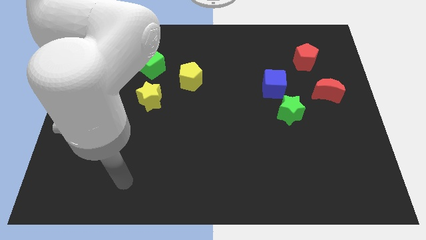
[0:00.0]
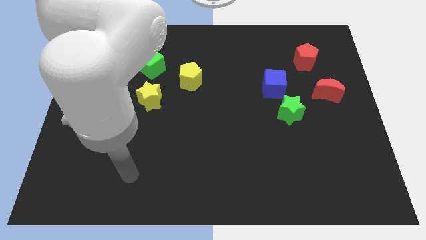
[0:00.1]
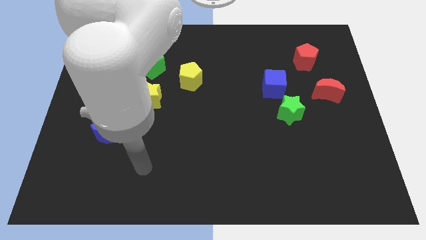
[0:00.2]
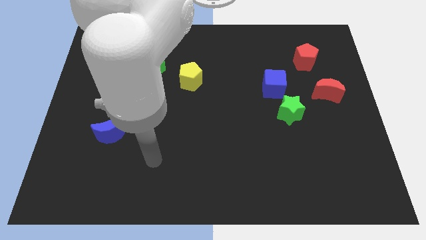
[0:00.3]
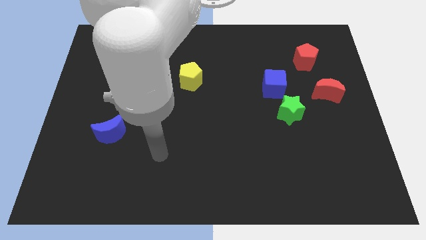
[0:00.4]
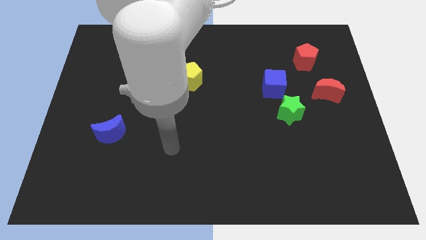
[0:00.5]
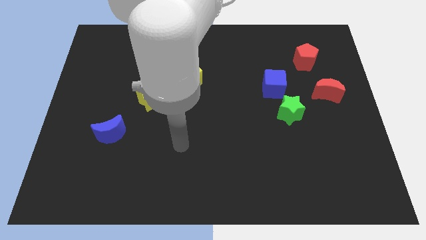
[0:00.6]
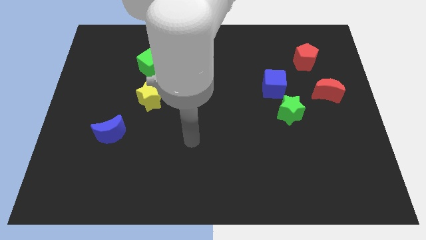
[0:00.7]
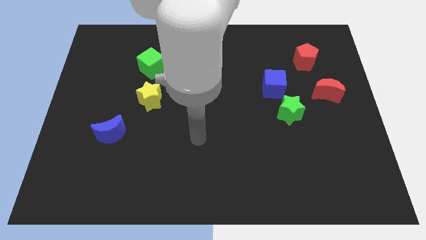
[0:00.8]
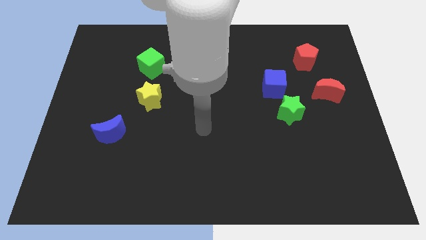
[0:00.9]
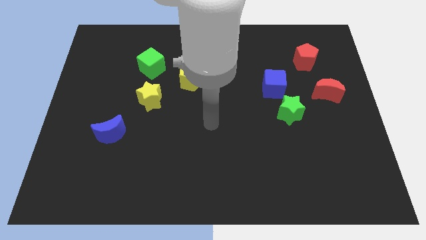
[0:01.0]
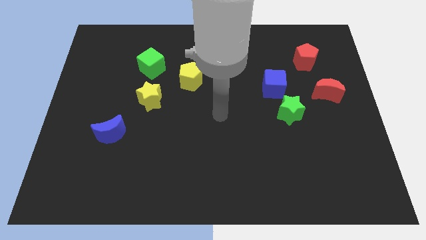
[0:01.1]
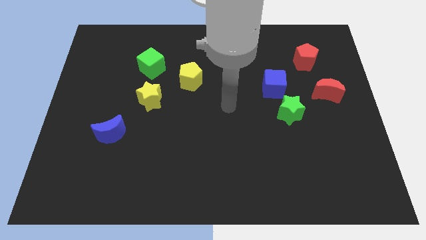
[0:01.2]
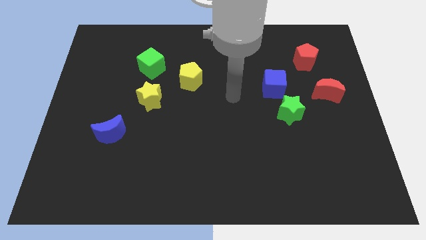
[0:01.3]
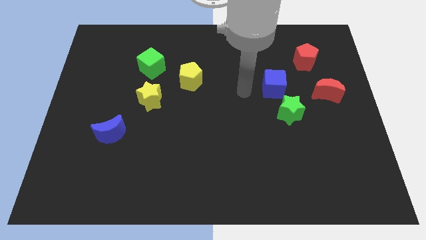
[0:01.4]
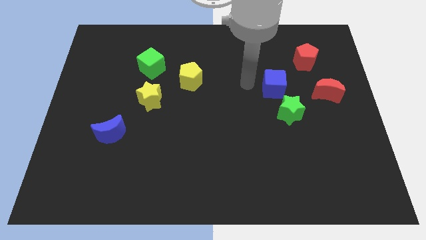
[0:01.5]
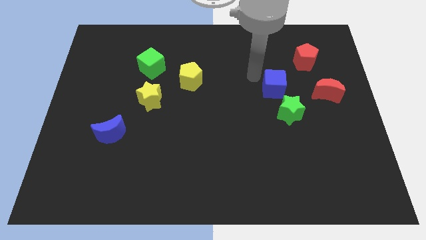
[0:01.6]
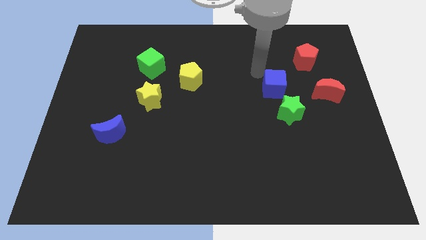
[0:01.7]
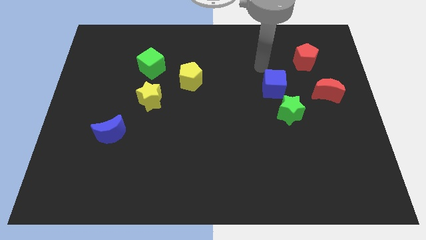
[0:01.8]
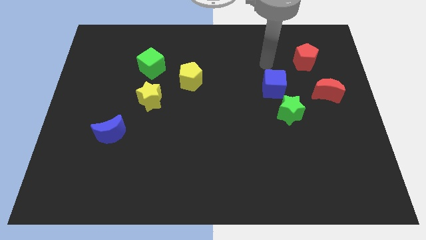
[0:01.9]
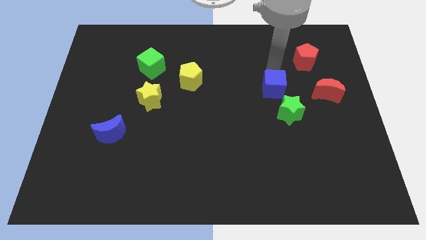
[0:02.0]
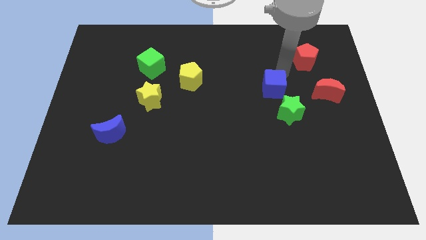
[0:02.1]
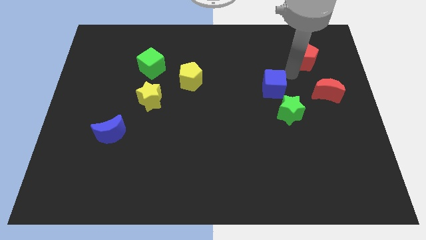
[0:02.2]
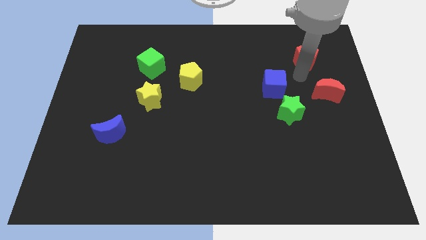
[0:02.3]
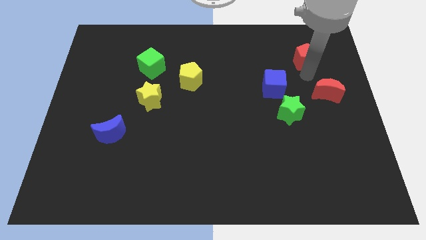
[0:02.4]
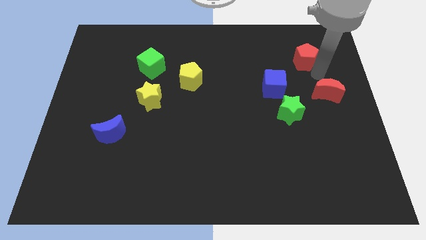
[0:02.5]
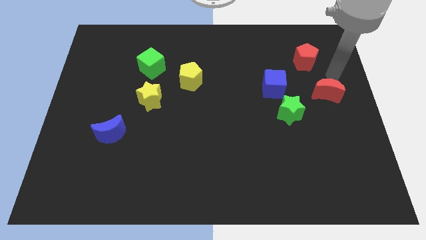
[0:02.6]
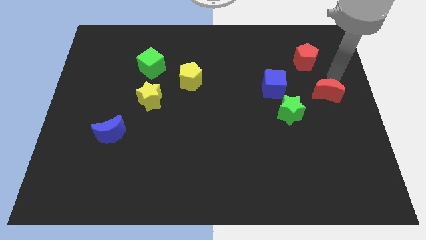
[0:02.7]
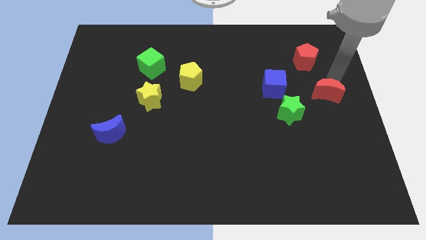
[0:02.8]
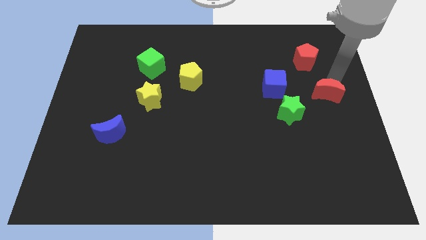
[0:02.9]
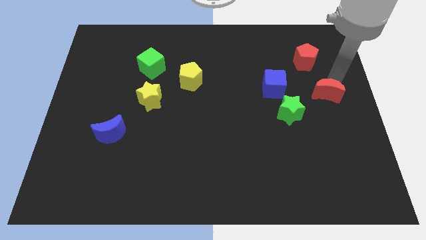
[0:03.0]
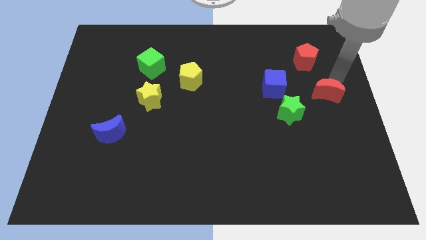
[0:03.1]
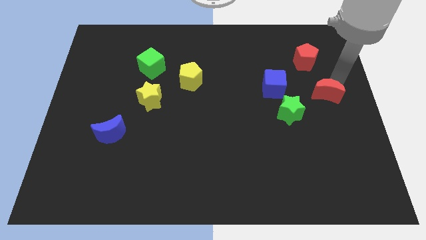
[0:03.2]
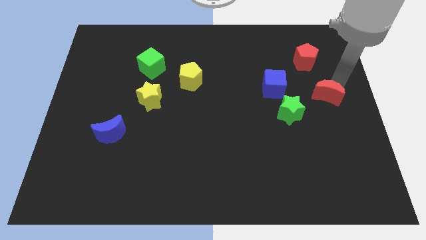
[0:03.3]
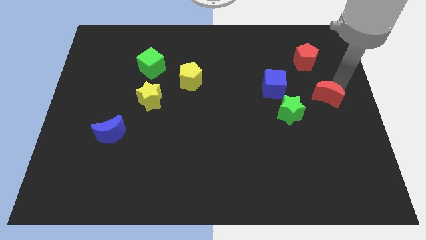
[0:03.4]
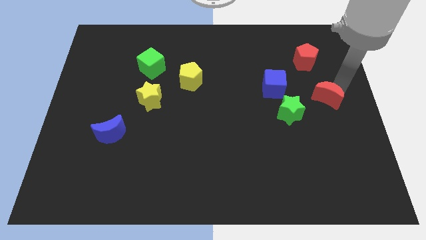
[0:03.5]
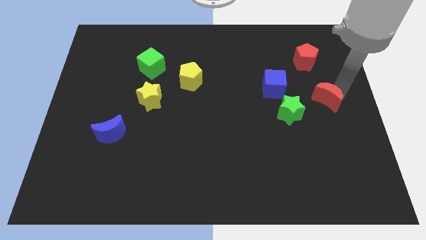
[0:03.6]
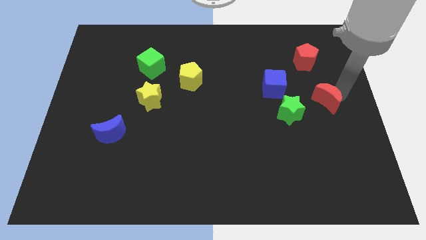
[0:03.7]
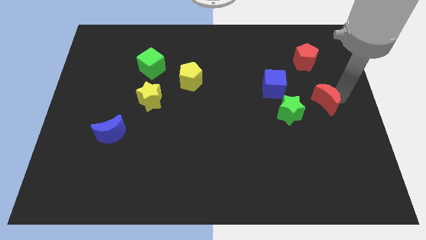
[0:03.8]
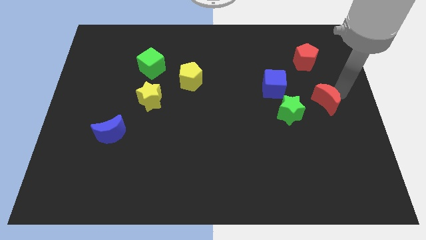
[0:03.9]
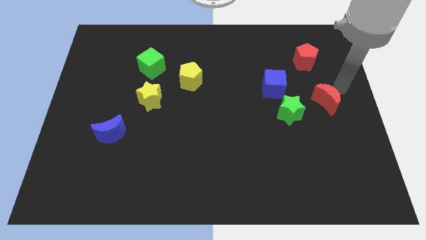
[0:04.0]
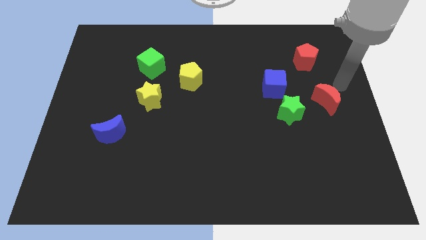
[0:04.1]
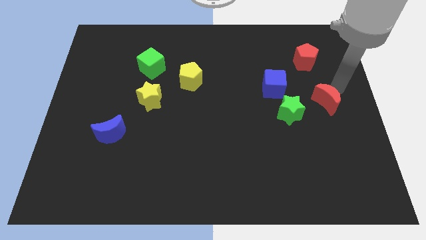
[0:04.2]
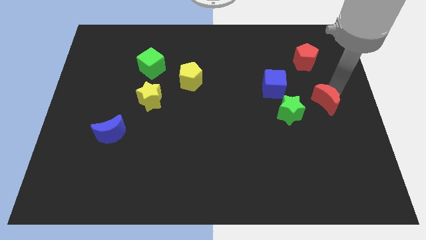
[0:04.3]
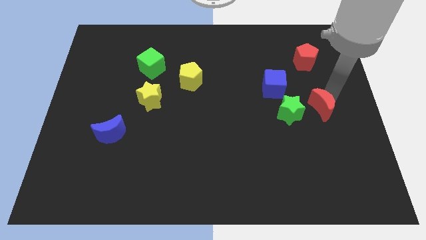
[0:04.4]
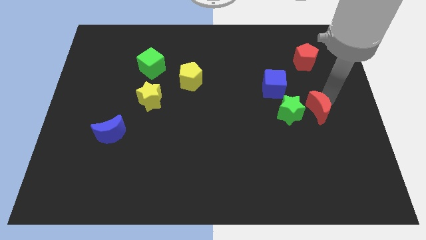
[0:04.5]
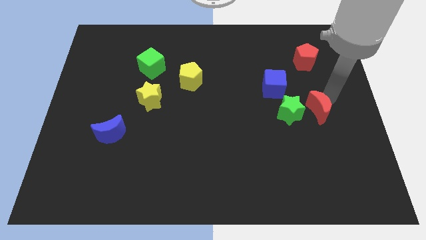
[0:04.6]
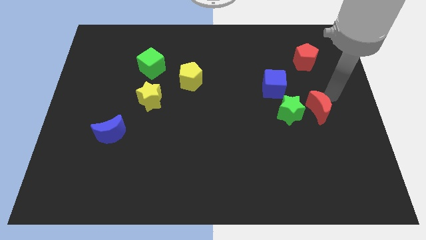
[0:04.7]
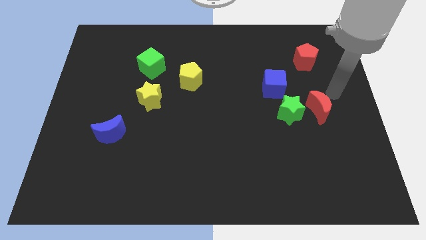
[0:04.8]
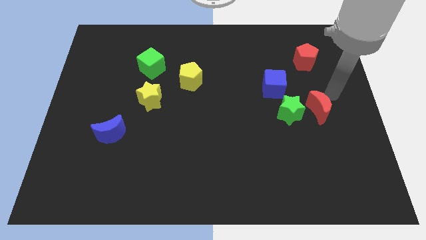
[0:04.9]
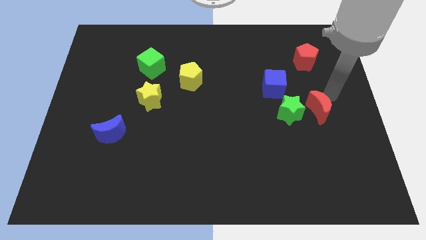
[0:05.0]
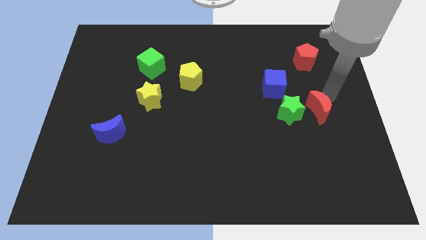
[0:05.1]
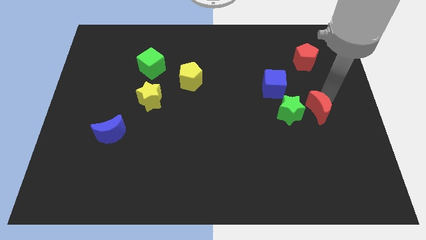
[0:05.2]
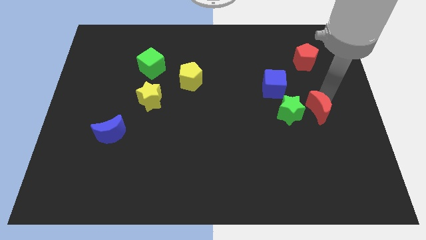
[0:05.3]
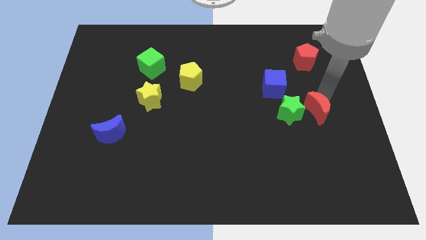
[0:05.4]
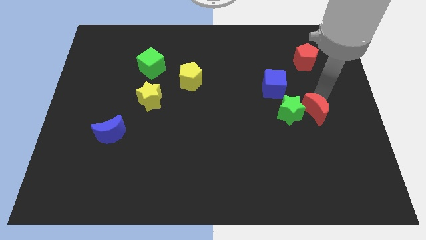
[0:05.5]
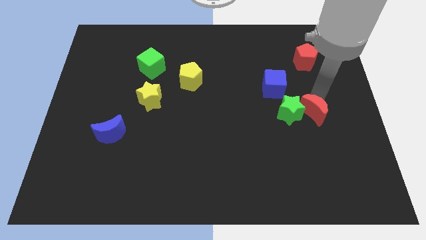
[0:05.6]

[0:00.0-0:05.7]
move the red moon slightly down and left

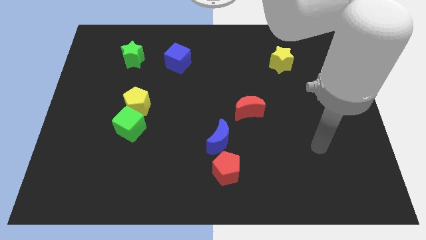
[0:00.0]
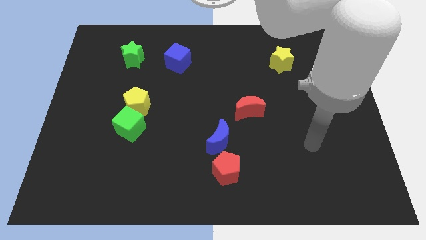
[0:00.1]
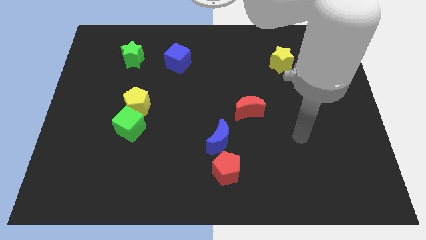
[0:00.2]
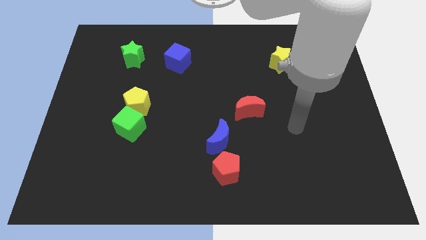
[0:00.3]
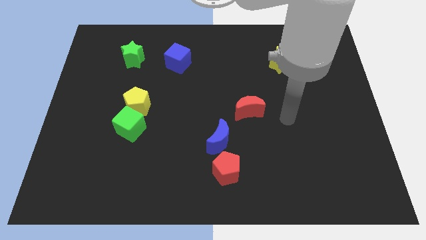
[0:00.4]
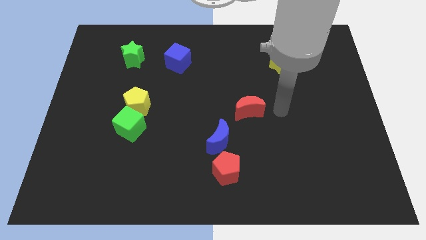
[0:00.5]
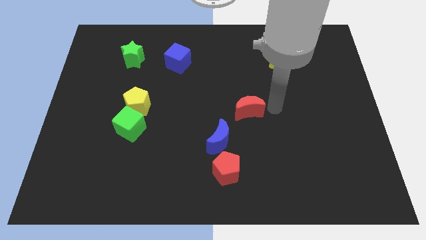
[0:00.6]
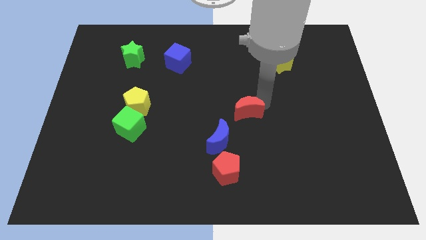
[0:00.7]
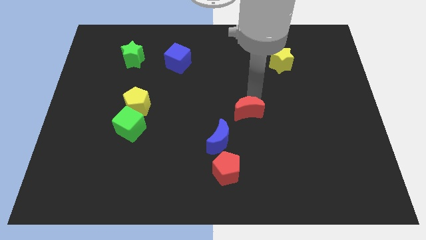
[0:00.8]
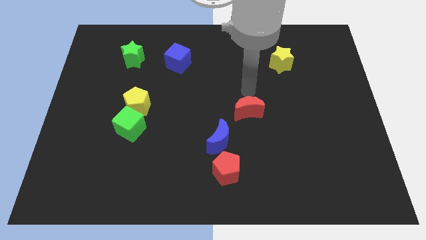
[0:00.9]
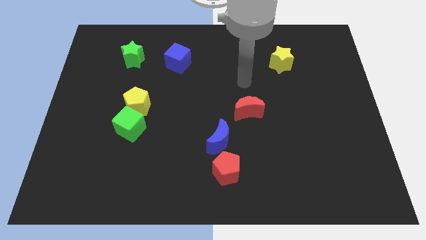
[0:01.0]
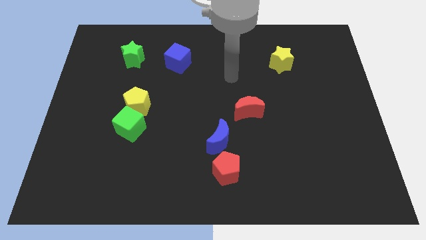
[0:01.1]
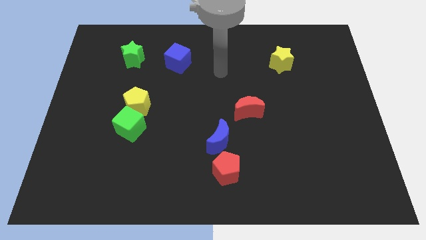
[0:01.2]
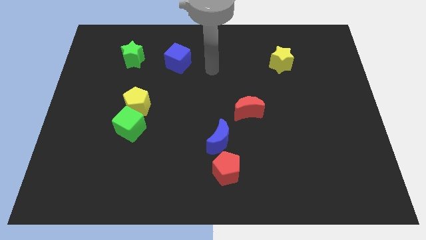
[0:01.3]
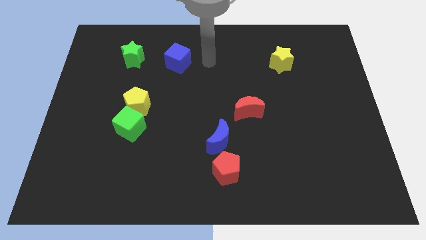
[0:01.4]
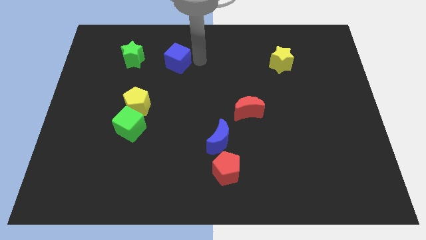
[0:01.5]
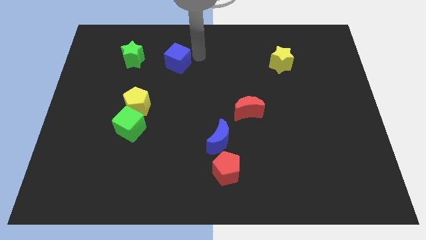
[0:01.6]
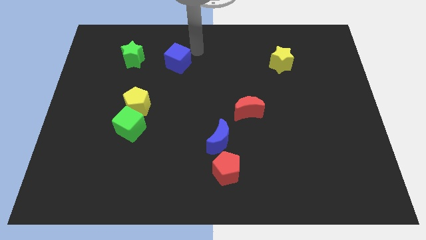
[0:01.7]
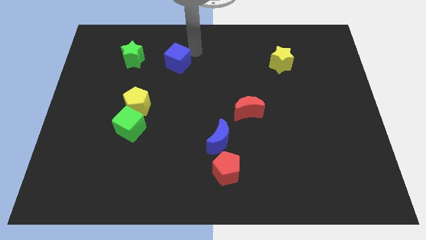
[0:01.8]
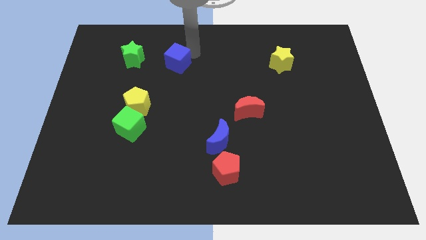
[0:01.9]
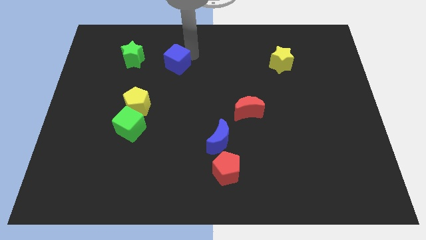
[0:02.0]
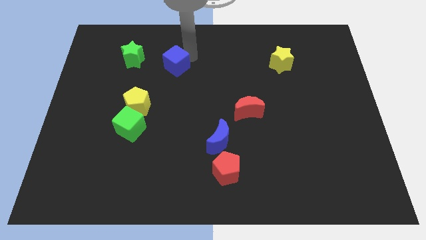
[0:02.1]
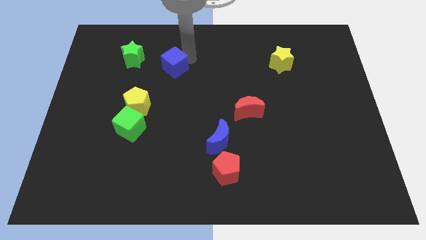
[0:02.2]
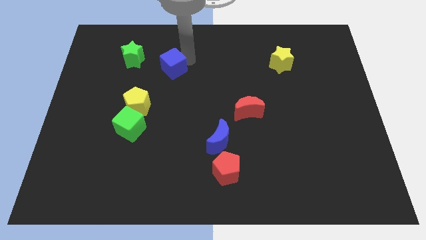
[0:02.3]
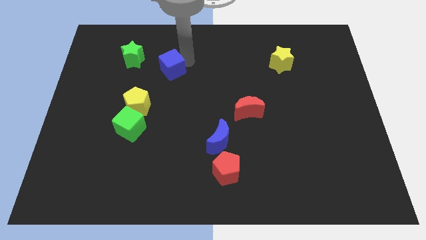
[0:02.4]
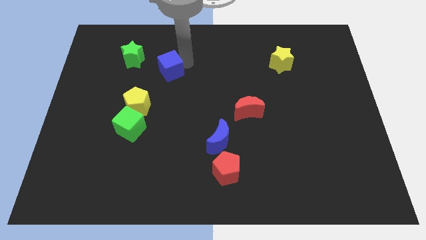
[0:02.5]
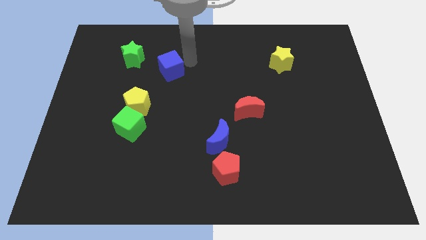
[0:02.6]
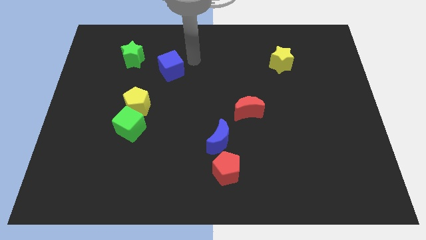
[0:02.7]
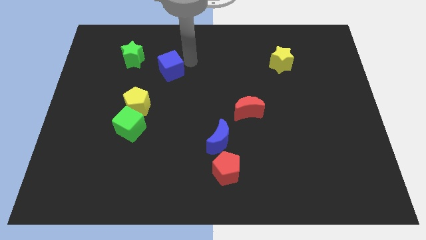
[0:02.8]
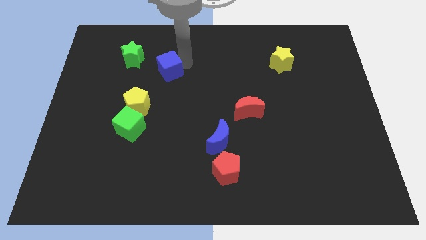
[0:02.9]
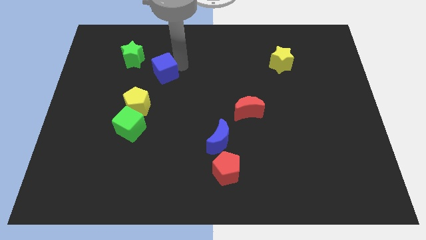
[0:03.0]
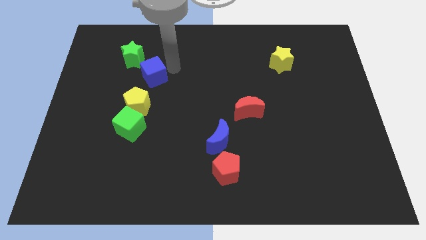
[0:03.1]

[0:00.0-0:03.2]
slightly slide the blue cube down and then to the left
